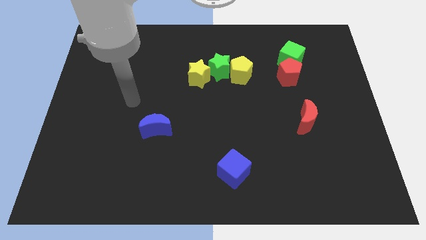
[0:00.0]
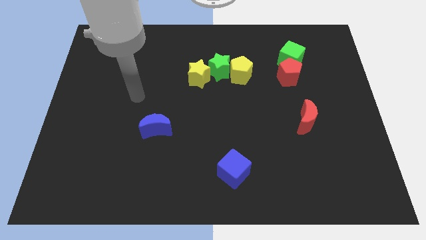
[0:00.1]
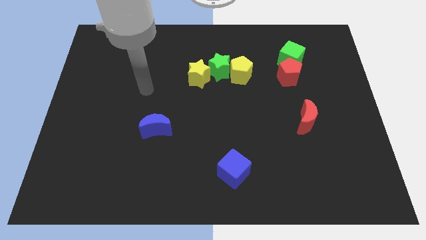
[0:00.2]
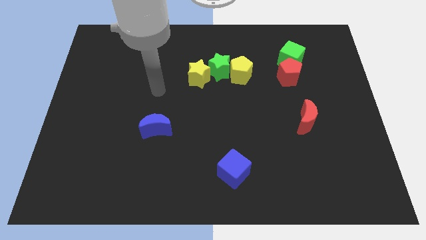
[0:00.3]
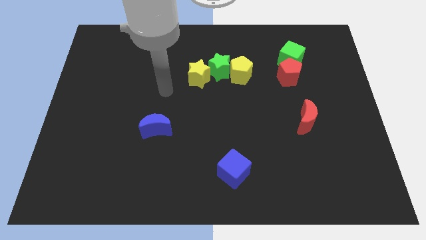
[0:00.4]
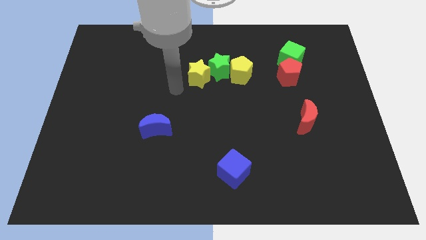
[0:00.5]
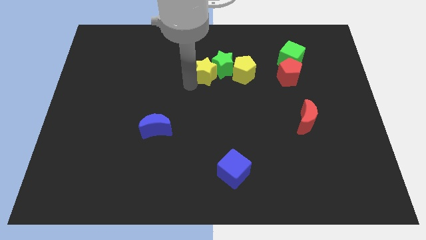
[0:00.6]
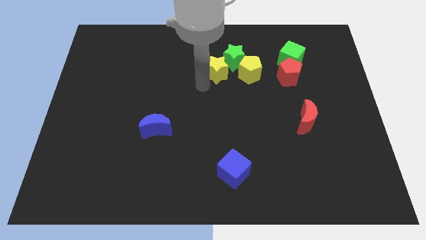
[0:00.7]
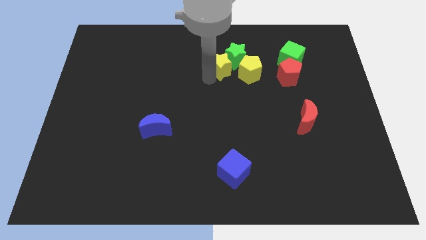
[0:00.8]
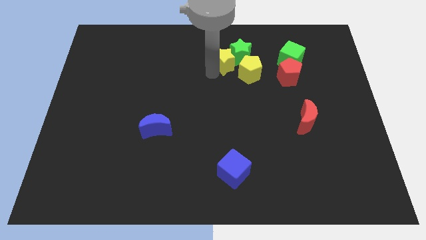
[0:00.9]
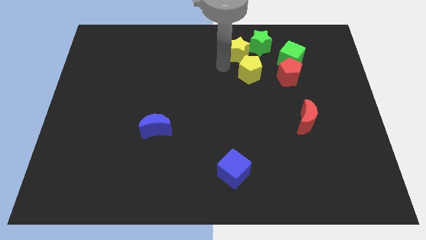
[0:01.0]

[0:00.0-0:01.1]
move the yellow pentagon away from the green star

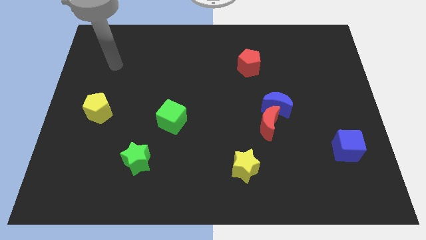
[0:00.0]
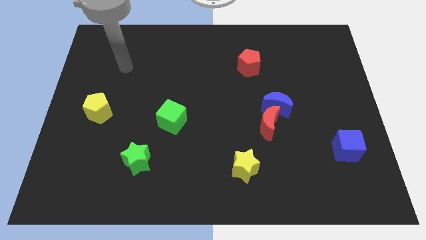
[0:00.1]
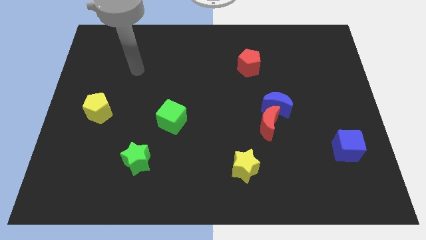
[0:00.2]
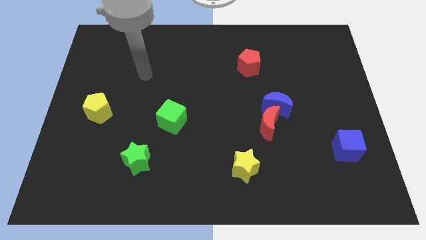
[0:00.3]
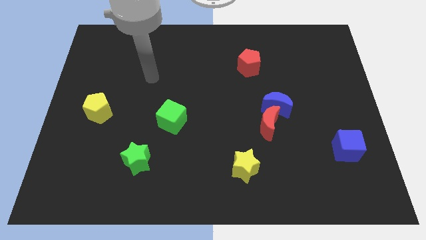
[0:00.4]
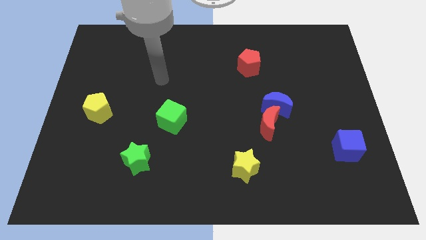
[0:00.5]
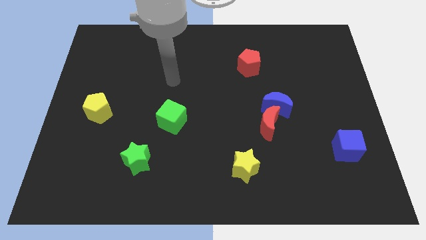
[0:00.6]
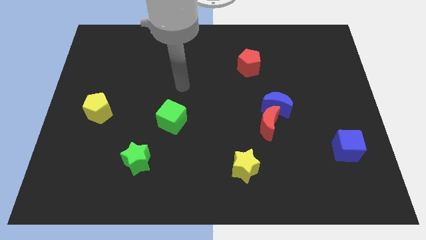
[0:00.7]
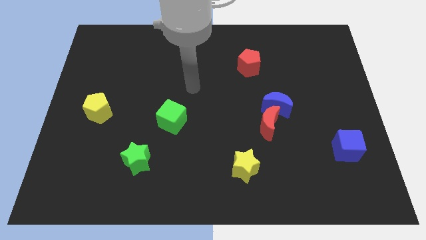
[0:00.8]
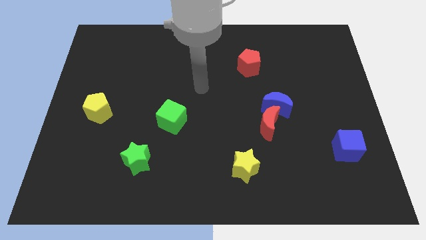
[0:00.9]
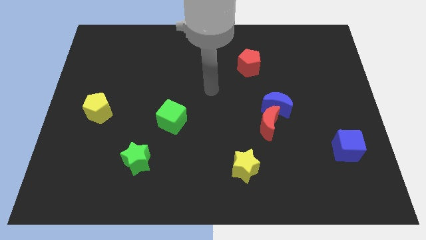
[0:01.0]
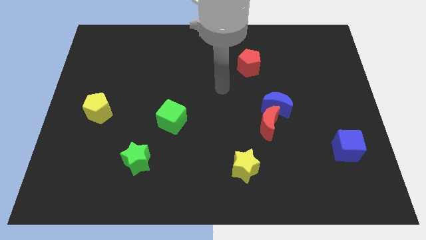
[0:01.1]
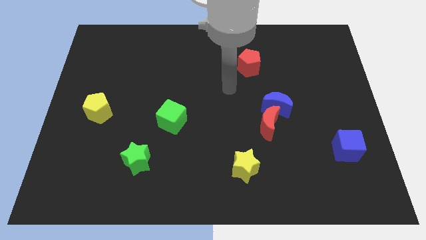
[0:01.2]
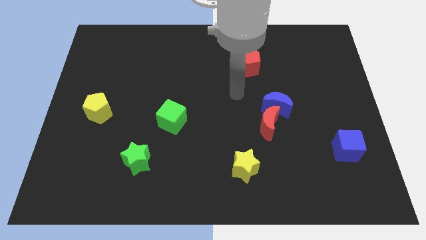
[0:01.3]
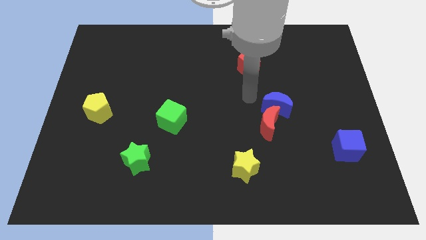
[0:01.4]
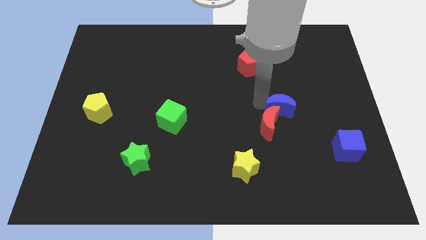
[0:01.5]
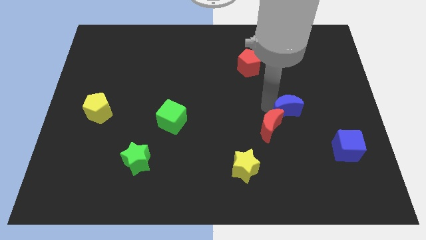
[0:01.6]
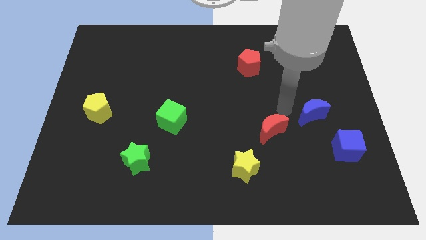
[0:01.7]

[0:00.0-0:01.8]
move the red moon away from the blue moon

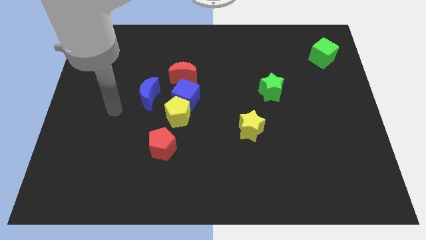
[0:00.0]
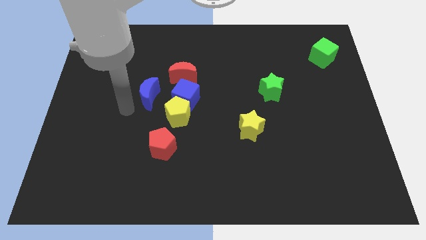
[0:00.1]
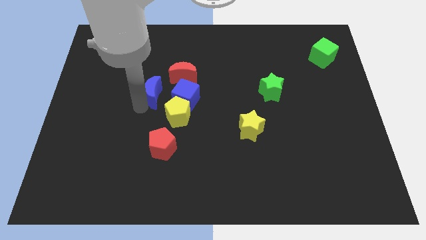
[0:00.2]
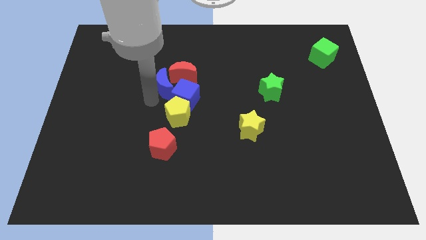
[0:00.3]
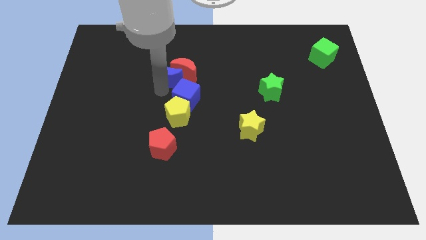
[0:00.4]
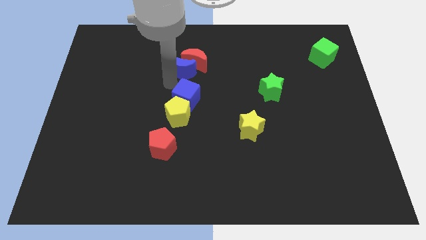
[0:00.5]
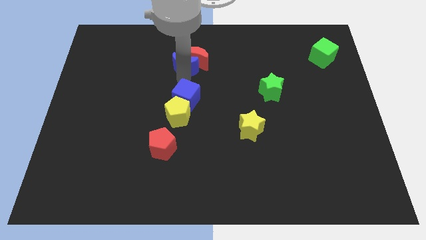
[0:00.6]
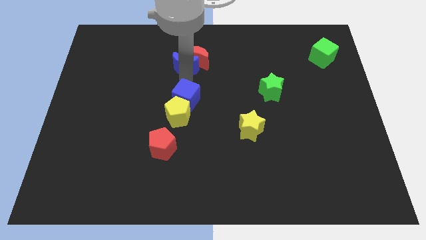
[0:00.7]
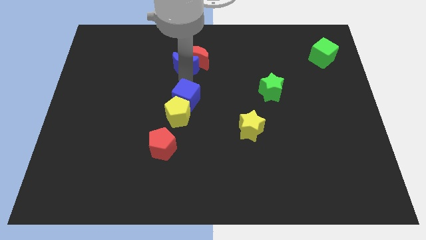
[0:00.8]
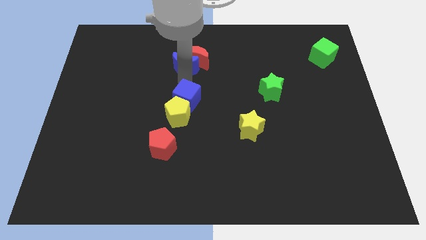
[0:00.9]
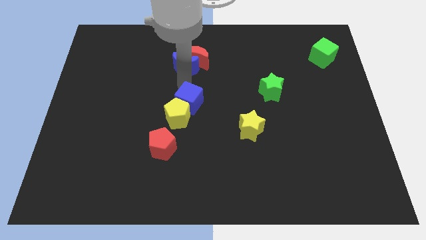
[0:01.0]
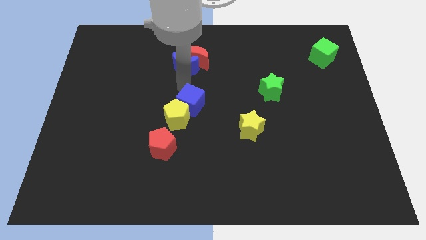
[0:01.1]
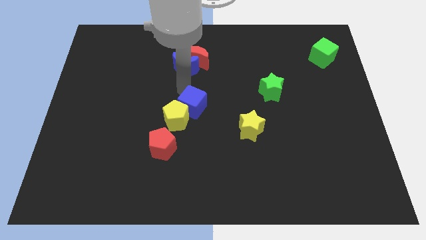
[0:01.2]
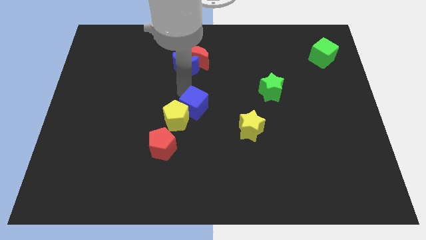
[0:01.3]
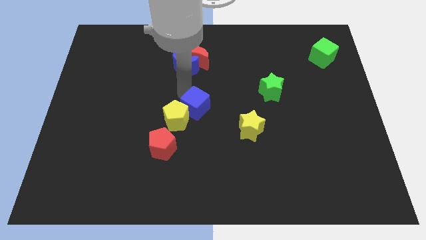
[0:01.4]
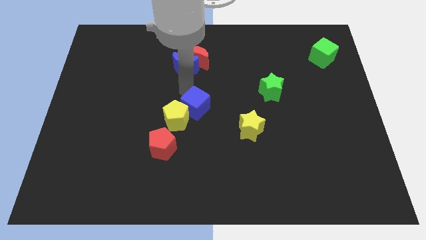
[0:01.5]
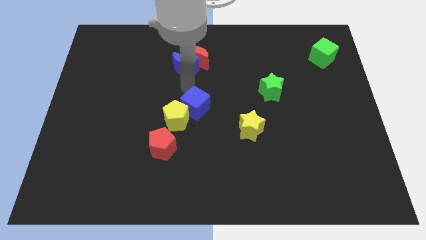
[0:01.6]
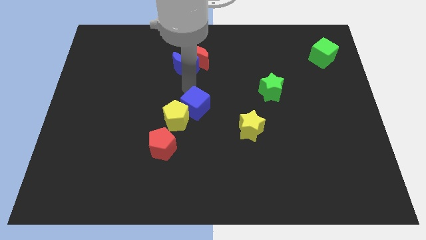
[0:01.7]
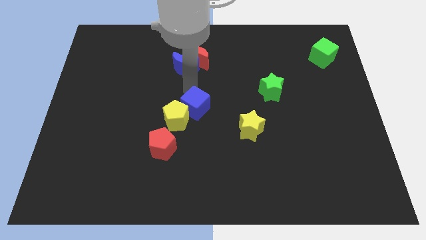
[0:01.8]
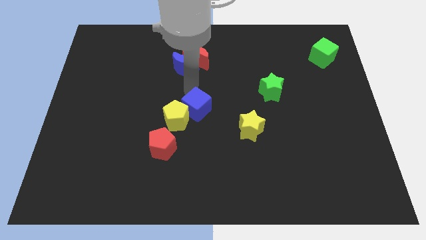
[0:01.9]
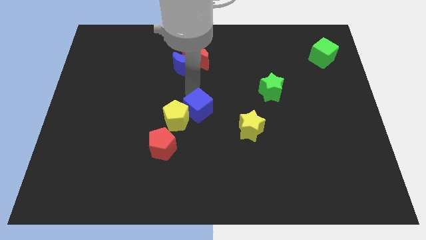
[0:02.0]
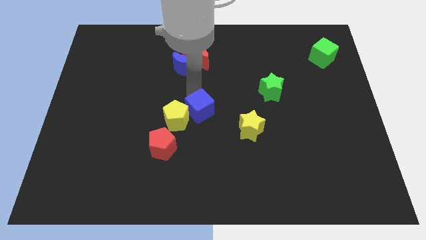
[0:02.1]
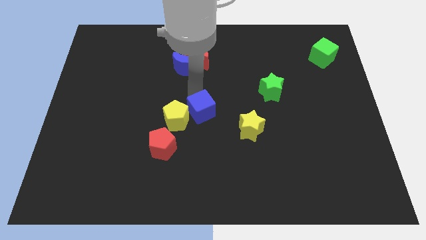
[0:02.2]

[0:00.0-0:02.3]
pull the blue cube apart from the yellow pentagon, red moon, and blue moon

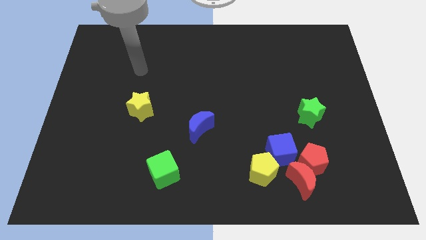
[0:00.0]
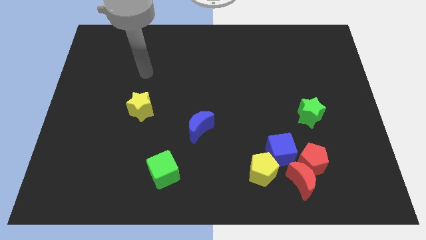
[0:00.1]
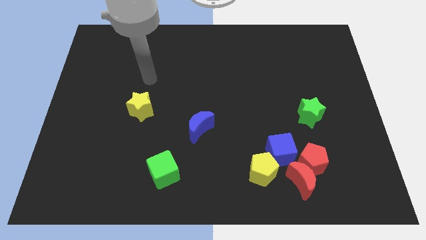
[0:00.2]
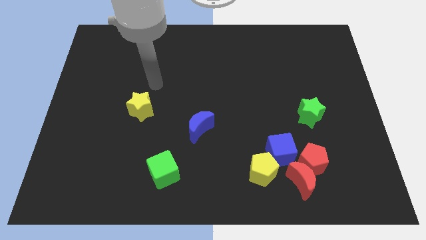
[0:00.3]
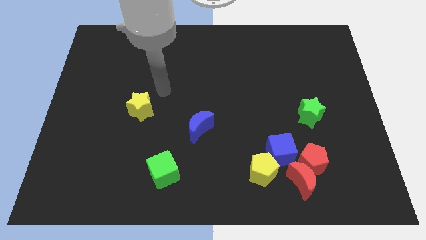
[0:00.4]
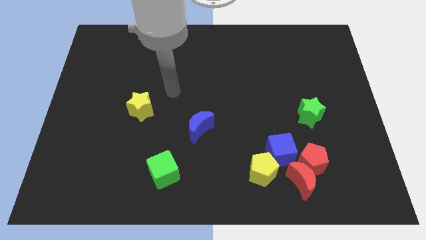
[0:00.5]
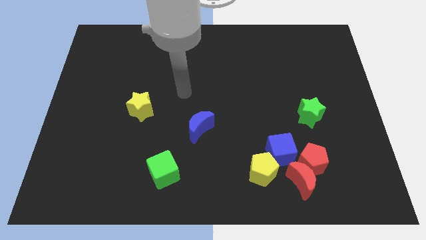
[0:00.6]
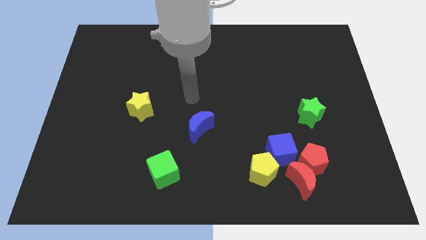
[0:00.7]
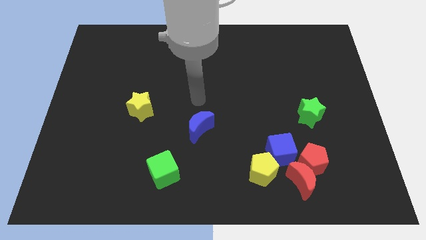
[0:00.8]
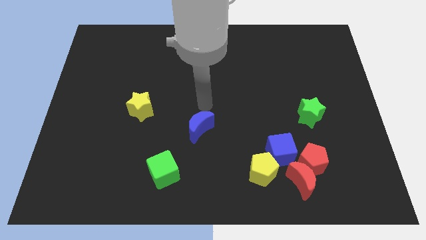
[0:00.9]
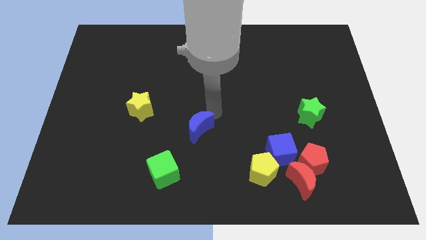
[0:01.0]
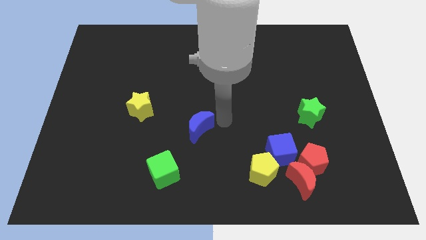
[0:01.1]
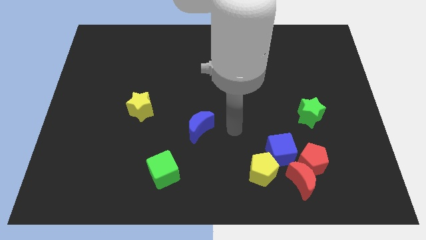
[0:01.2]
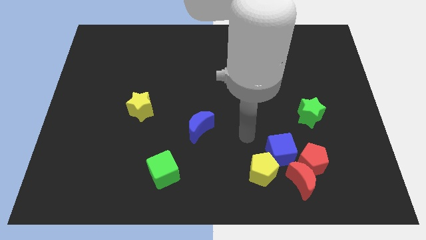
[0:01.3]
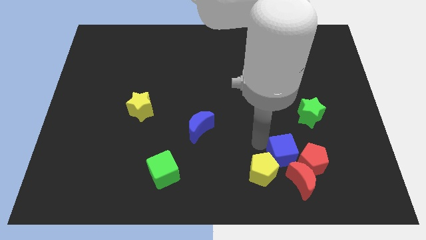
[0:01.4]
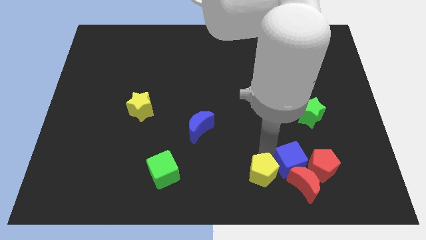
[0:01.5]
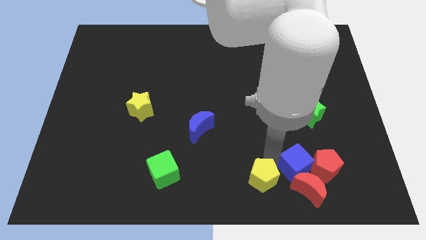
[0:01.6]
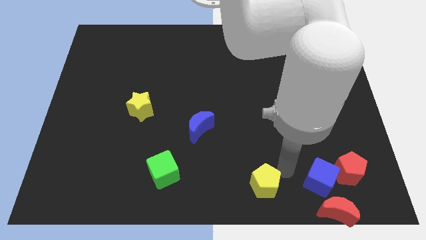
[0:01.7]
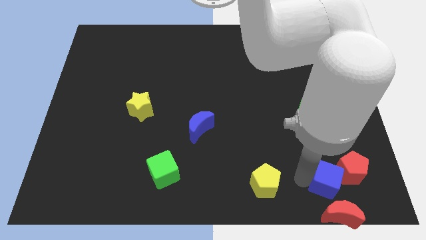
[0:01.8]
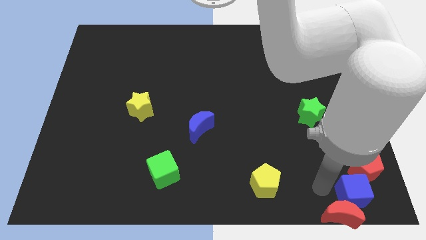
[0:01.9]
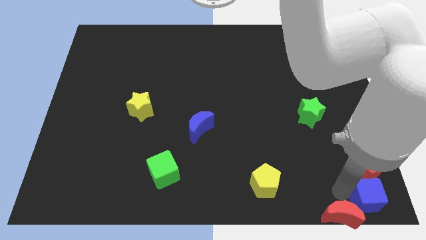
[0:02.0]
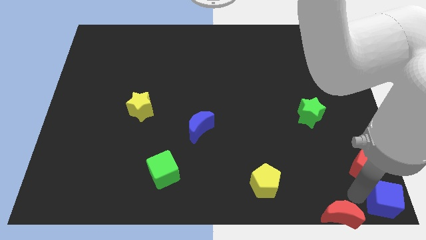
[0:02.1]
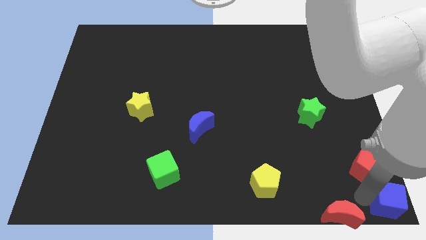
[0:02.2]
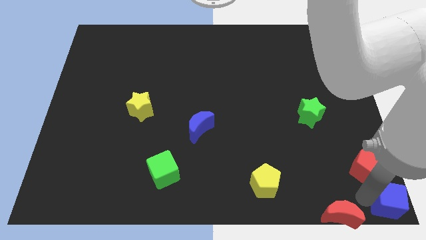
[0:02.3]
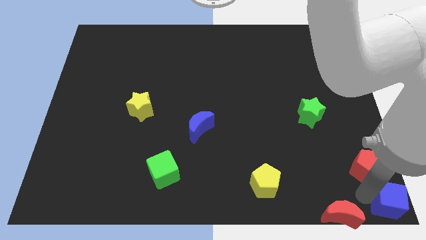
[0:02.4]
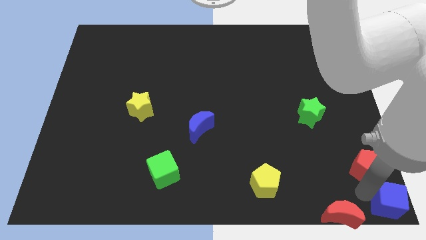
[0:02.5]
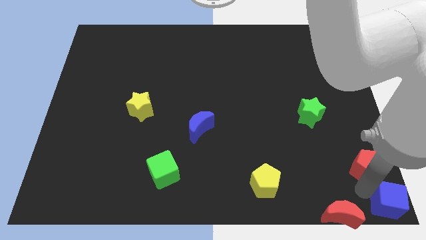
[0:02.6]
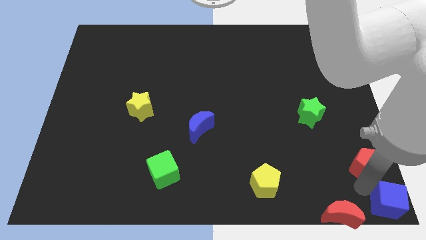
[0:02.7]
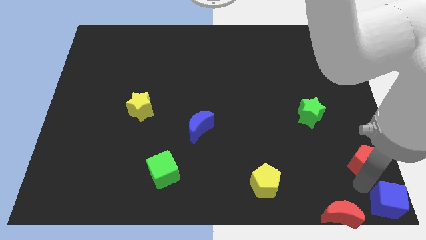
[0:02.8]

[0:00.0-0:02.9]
separate the red pentagon from the red moon and blue cube

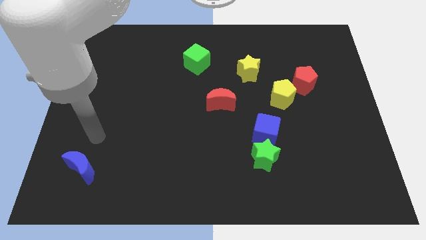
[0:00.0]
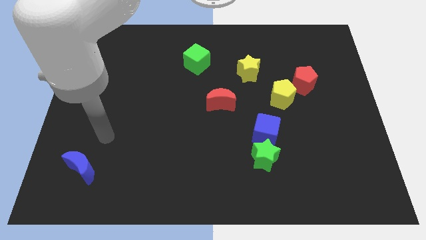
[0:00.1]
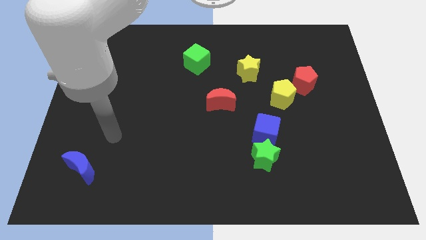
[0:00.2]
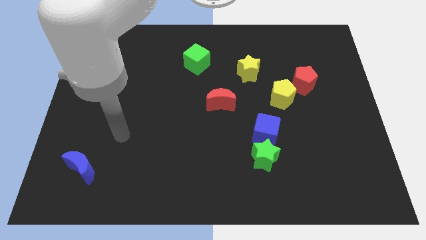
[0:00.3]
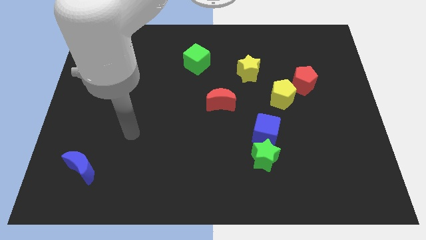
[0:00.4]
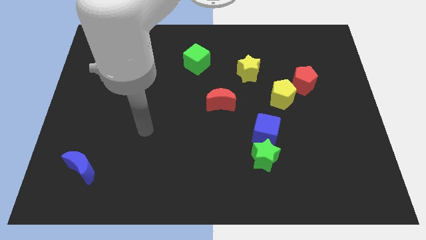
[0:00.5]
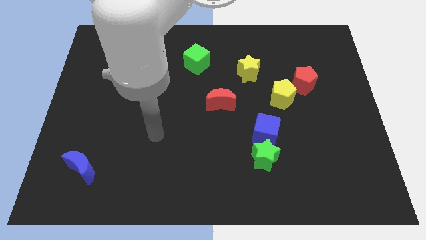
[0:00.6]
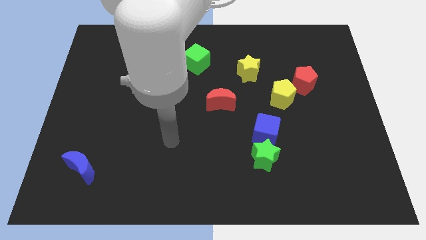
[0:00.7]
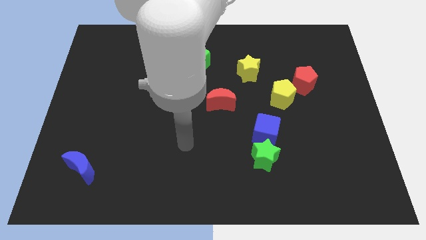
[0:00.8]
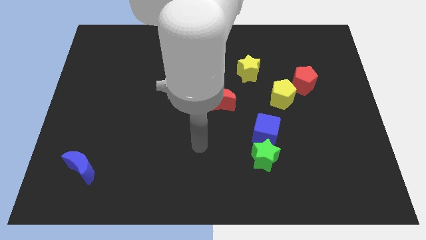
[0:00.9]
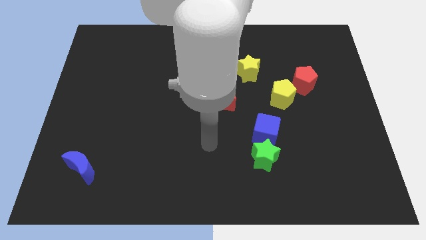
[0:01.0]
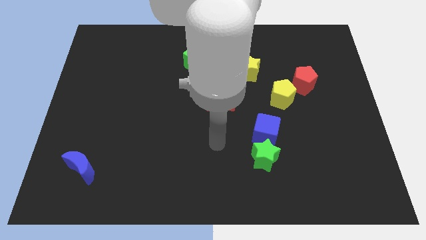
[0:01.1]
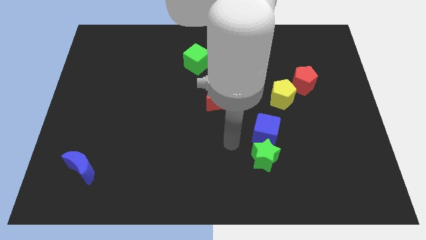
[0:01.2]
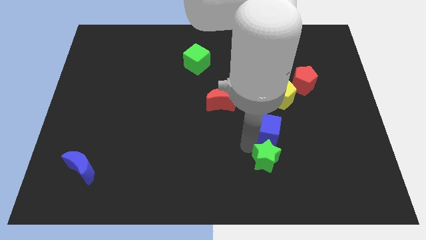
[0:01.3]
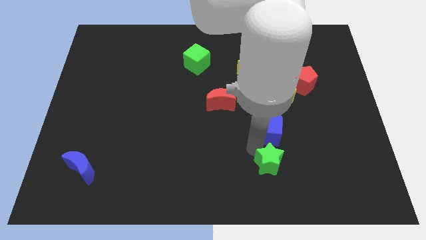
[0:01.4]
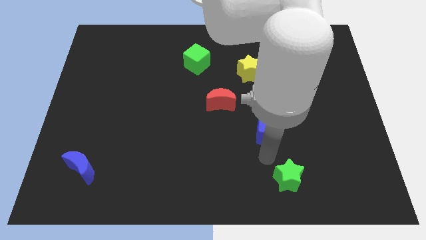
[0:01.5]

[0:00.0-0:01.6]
pull the blue cube apart from the green star
